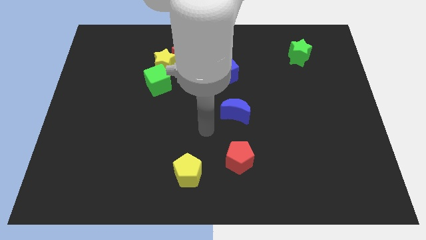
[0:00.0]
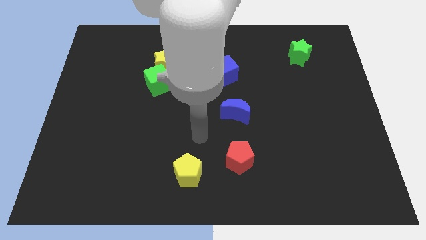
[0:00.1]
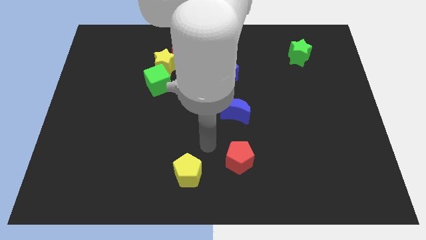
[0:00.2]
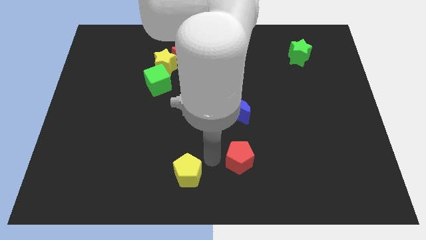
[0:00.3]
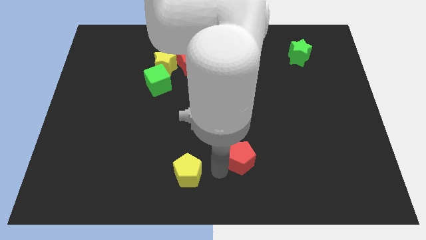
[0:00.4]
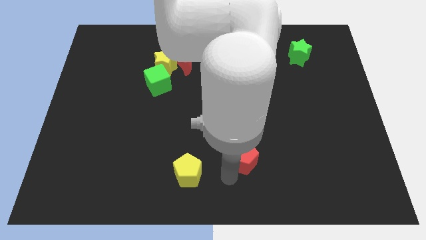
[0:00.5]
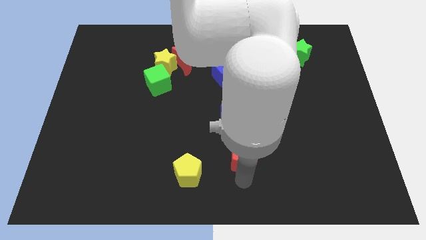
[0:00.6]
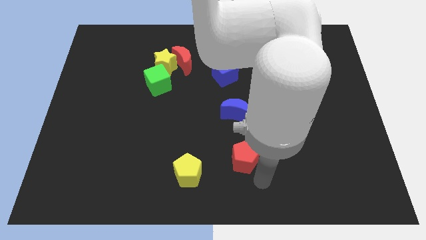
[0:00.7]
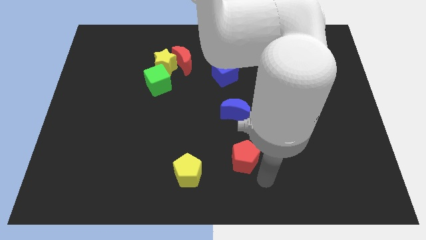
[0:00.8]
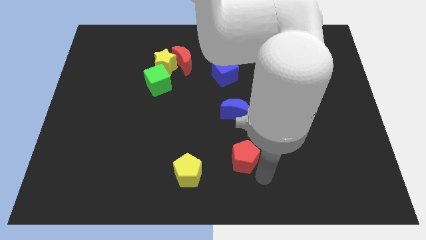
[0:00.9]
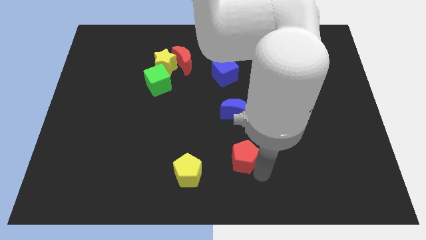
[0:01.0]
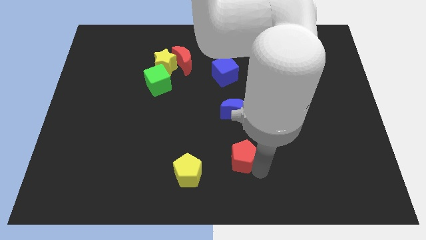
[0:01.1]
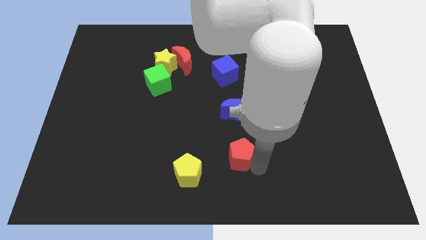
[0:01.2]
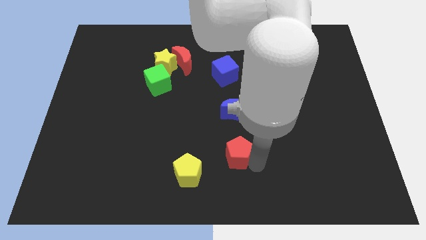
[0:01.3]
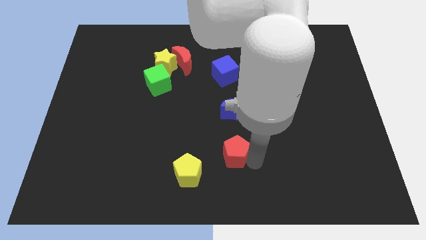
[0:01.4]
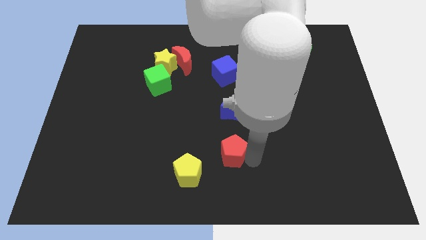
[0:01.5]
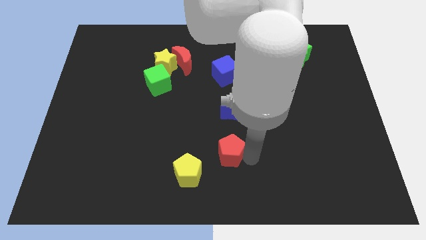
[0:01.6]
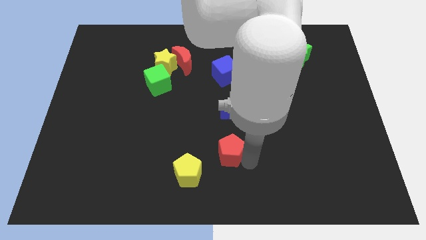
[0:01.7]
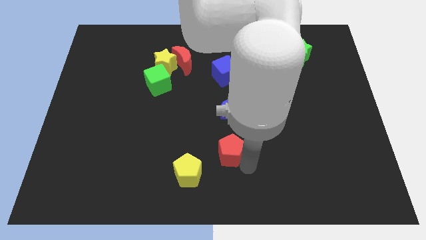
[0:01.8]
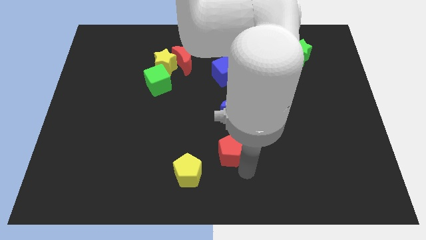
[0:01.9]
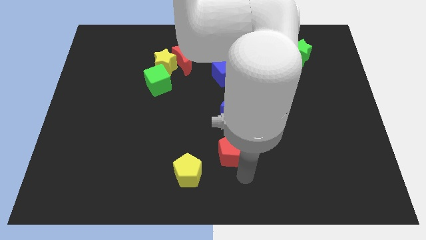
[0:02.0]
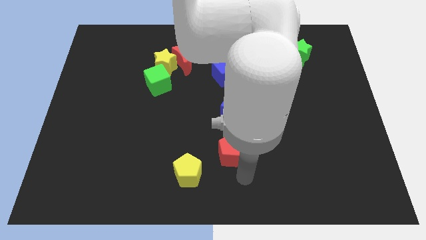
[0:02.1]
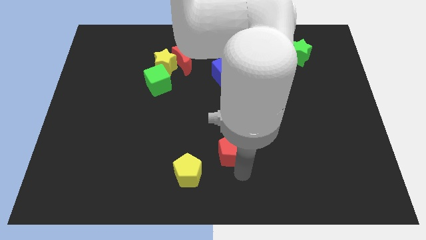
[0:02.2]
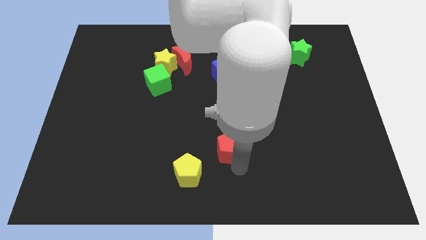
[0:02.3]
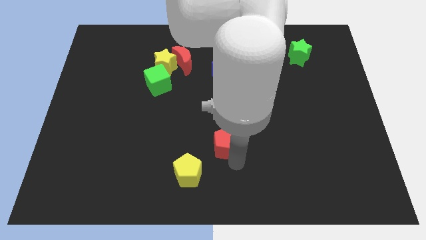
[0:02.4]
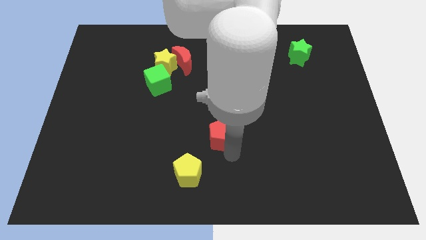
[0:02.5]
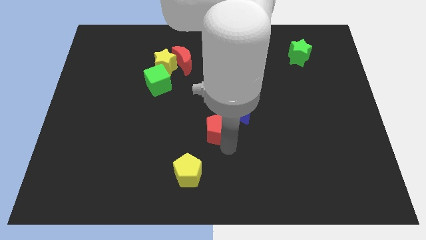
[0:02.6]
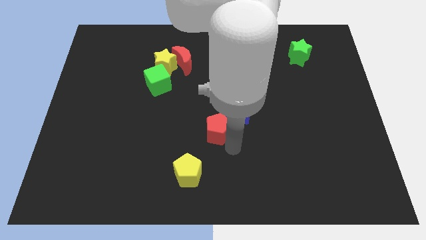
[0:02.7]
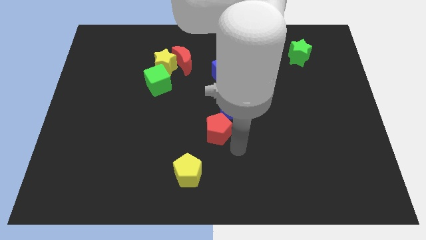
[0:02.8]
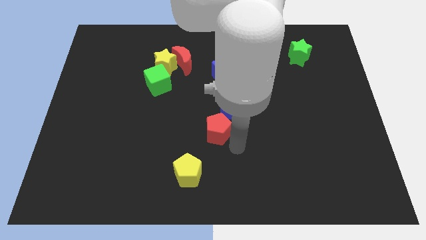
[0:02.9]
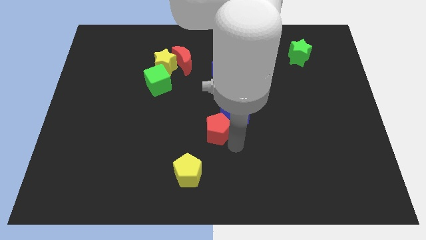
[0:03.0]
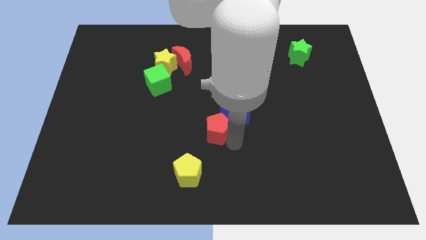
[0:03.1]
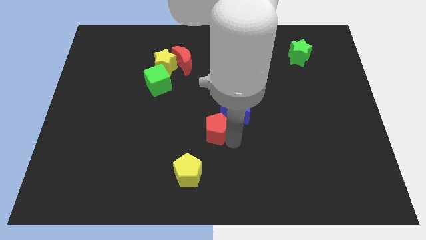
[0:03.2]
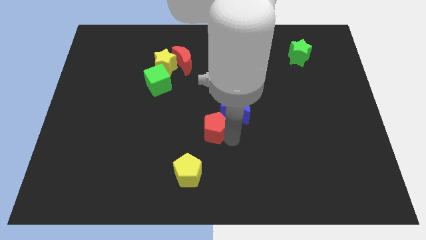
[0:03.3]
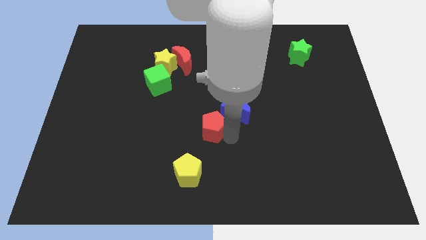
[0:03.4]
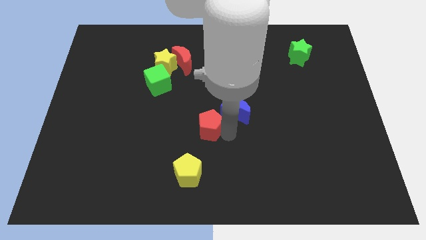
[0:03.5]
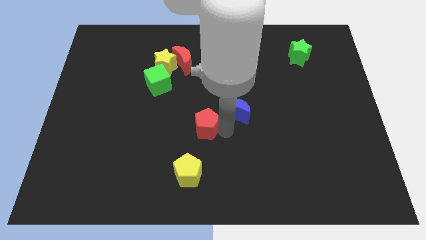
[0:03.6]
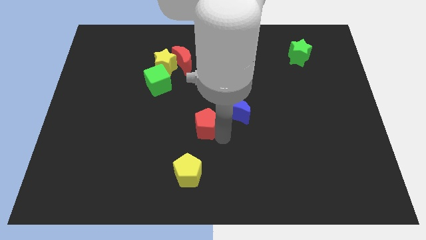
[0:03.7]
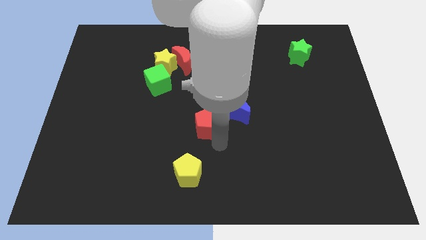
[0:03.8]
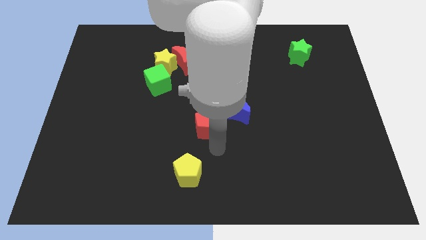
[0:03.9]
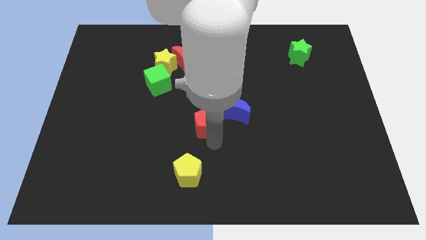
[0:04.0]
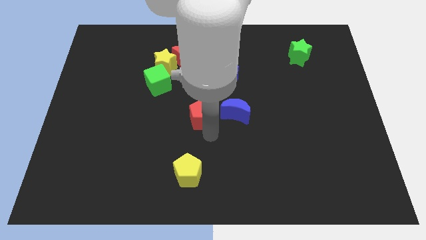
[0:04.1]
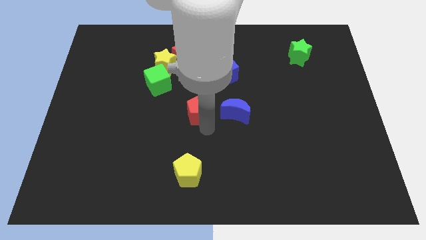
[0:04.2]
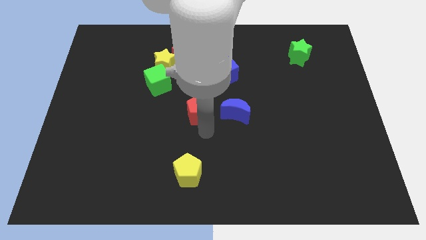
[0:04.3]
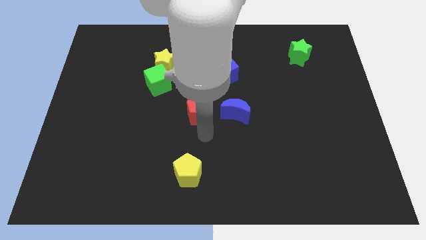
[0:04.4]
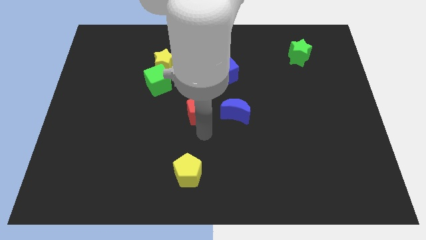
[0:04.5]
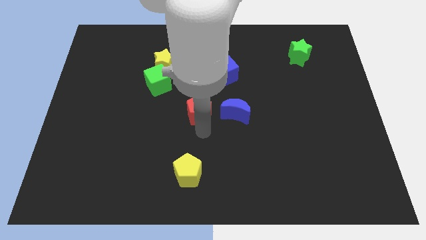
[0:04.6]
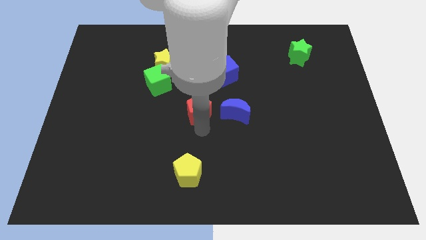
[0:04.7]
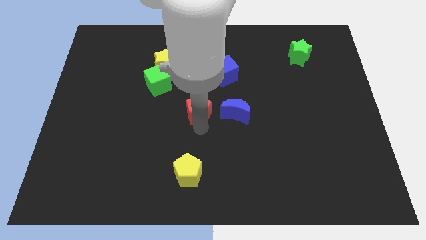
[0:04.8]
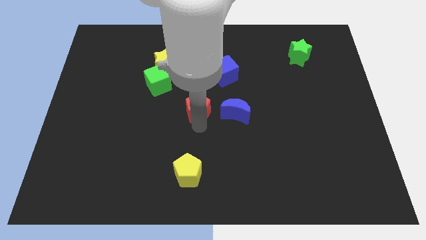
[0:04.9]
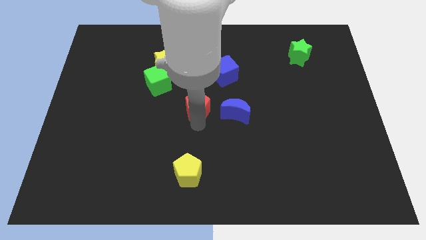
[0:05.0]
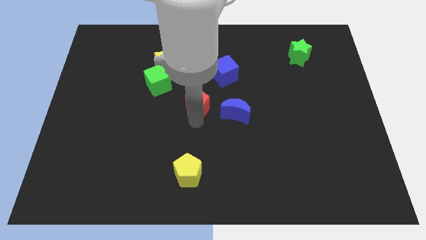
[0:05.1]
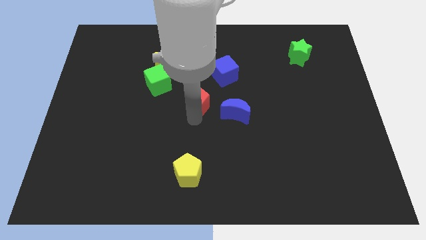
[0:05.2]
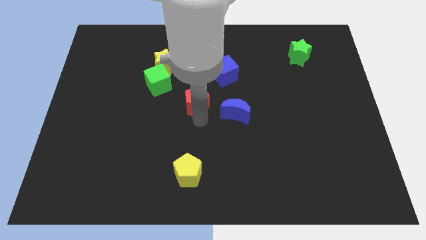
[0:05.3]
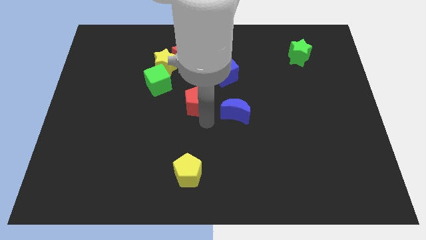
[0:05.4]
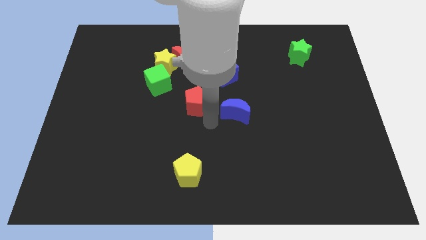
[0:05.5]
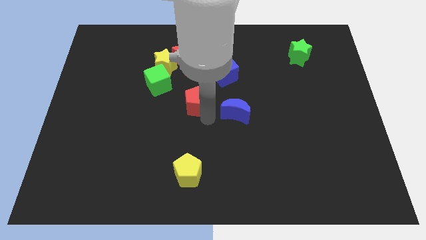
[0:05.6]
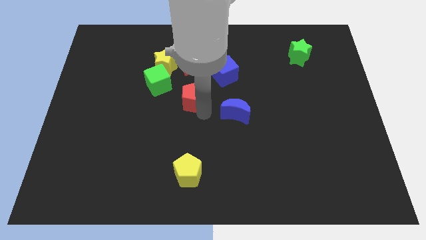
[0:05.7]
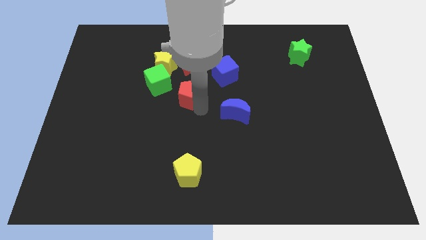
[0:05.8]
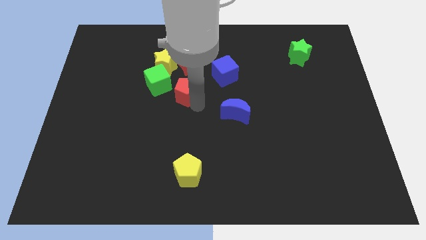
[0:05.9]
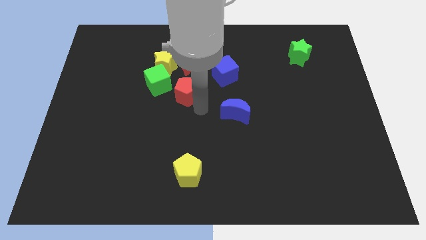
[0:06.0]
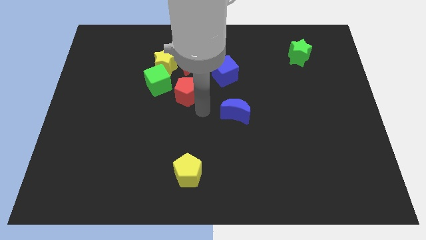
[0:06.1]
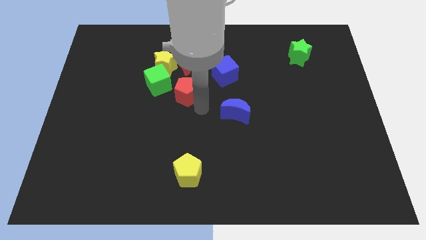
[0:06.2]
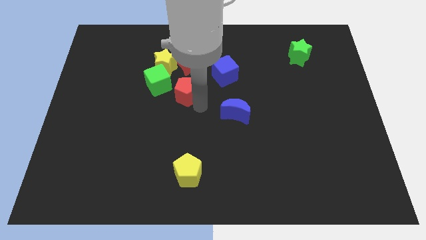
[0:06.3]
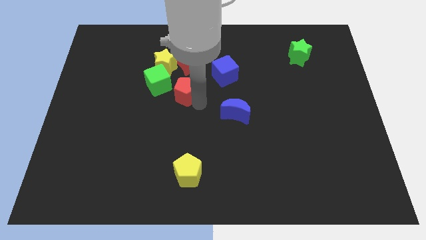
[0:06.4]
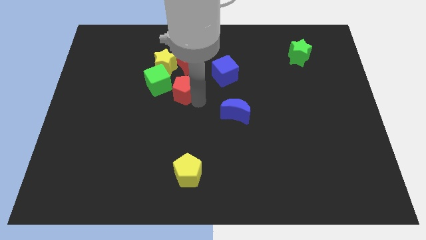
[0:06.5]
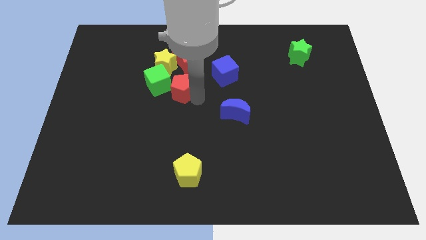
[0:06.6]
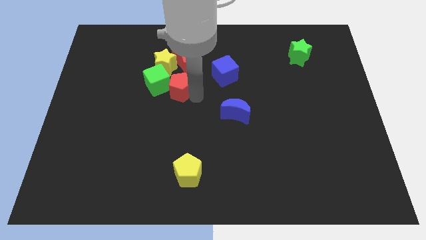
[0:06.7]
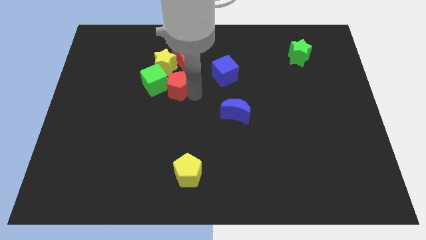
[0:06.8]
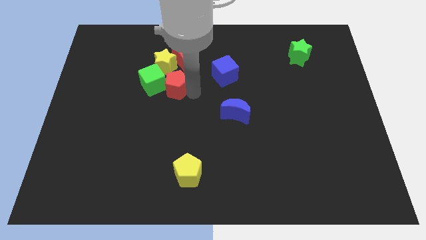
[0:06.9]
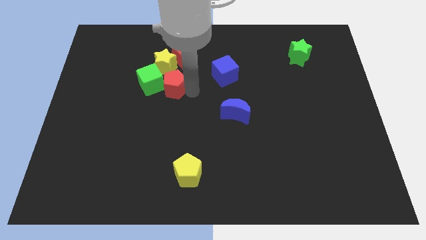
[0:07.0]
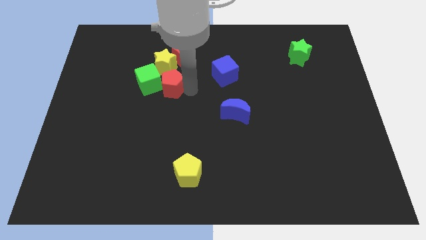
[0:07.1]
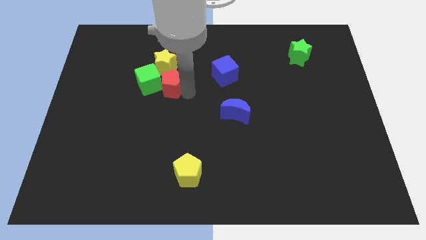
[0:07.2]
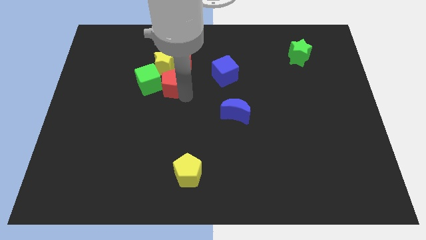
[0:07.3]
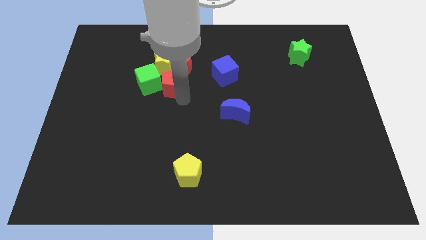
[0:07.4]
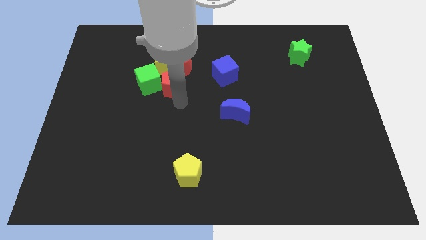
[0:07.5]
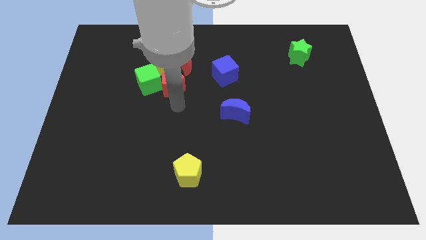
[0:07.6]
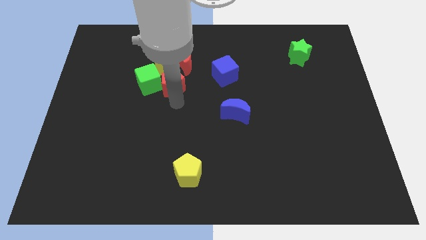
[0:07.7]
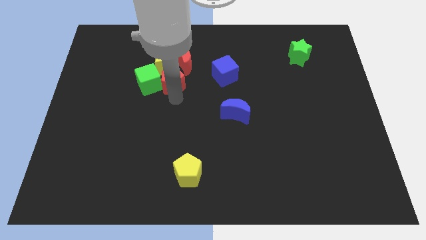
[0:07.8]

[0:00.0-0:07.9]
put the red pentagon close to the yellow star

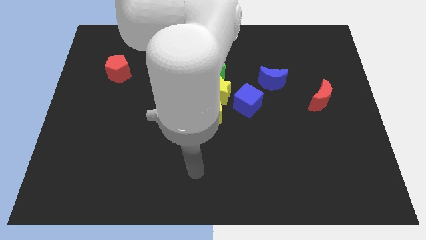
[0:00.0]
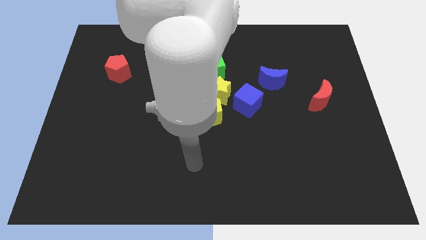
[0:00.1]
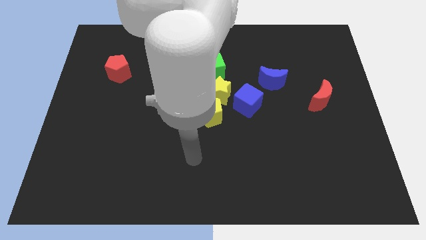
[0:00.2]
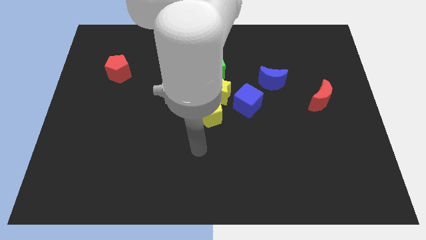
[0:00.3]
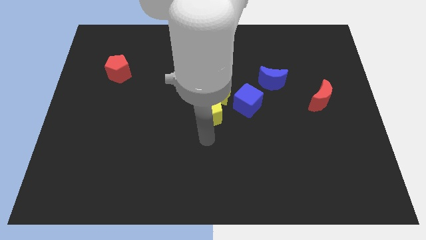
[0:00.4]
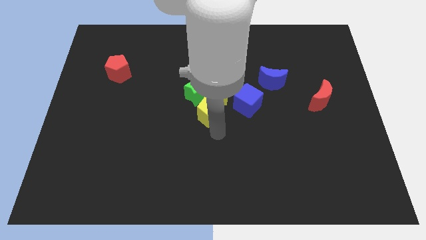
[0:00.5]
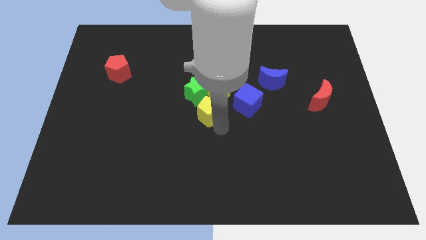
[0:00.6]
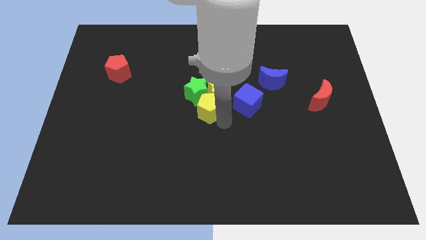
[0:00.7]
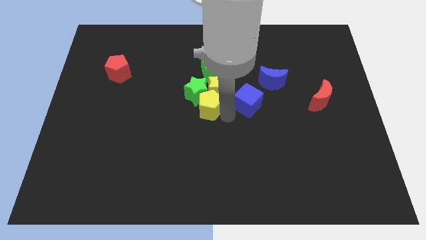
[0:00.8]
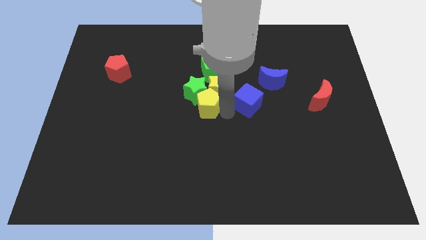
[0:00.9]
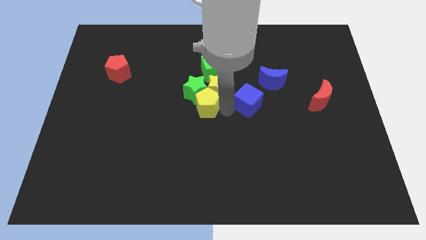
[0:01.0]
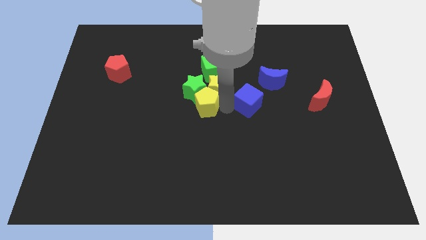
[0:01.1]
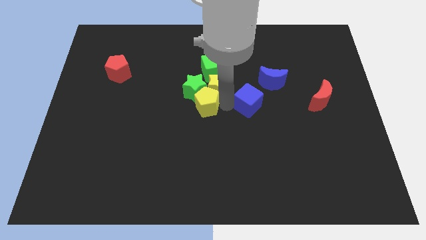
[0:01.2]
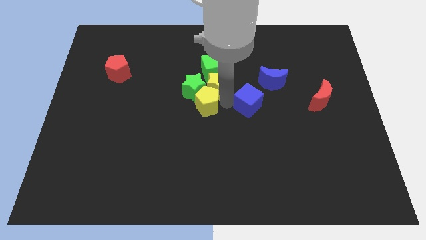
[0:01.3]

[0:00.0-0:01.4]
put the yellow star next to the green cube
